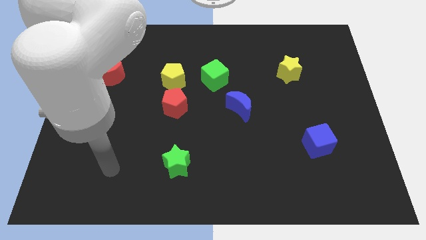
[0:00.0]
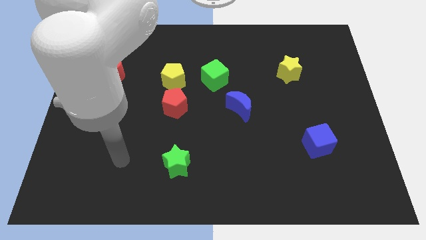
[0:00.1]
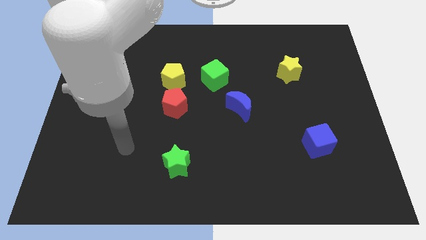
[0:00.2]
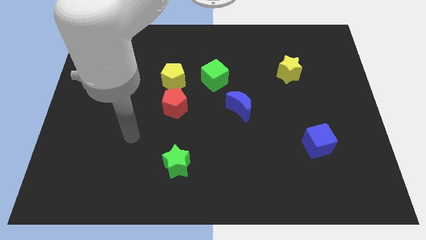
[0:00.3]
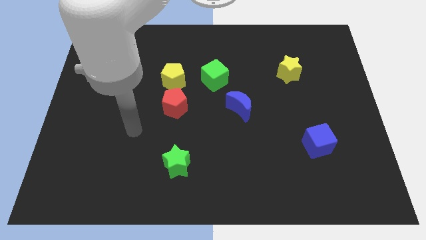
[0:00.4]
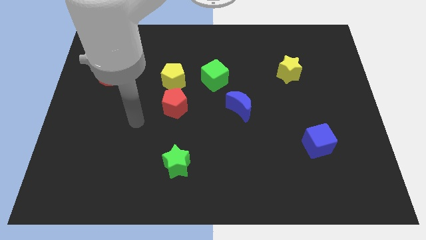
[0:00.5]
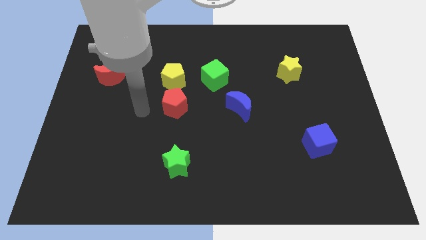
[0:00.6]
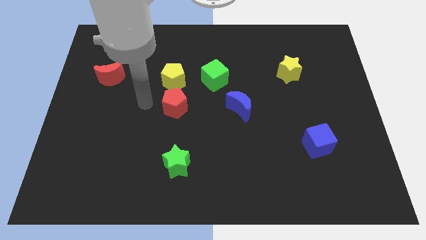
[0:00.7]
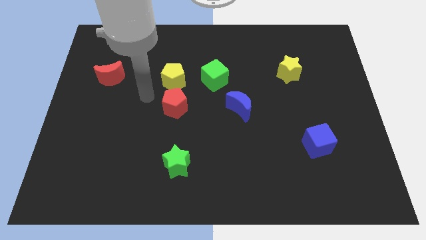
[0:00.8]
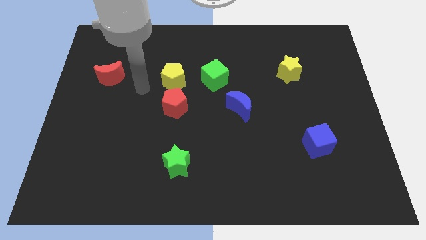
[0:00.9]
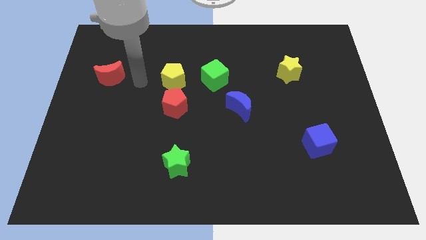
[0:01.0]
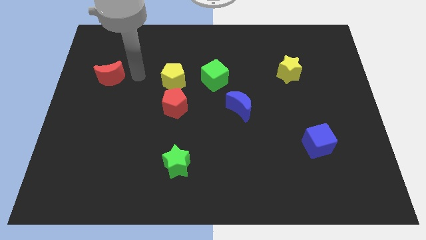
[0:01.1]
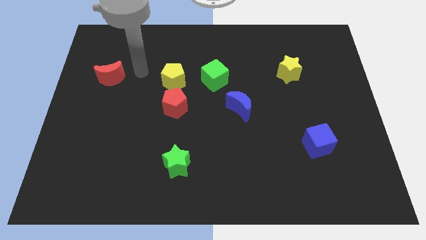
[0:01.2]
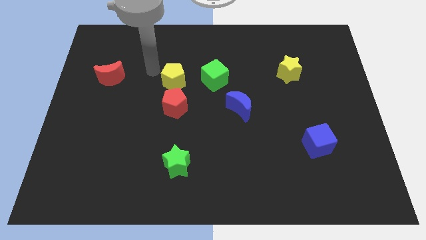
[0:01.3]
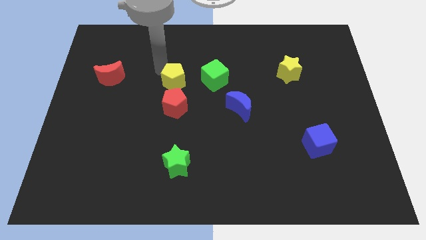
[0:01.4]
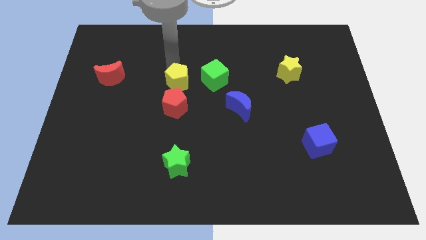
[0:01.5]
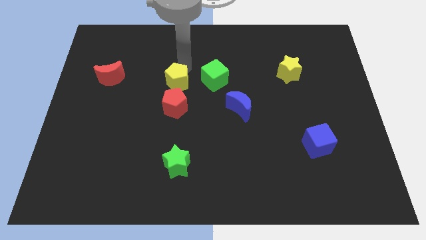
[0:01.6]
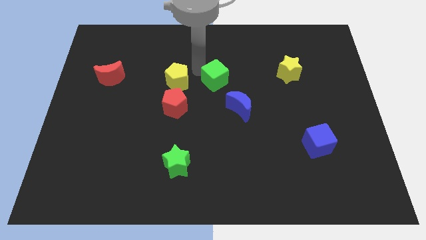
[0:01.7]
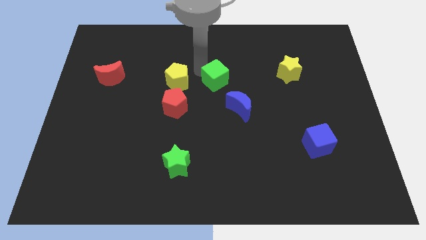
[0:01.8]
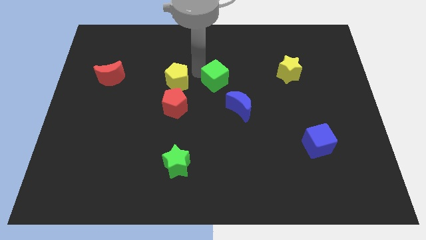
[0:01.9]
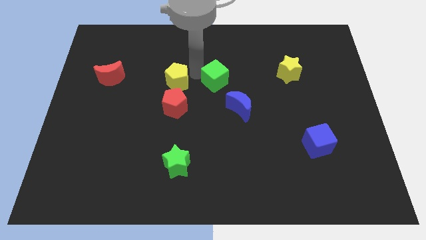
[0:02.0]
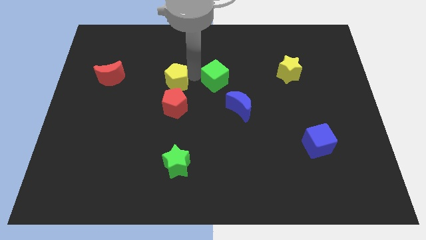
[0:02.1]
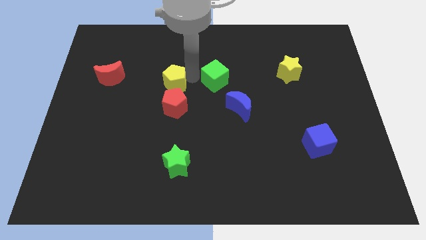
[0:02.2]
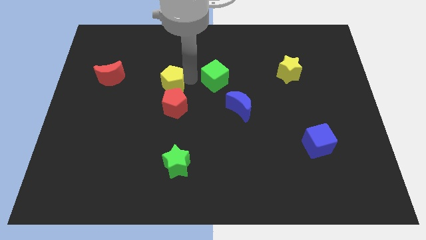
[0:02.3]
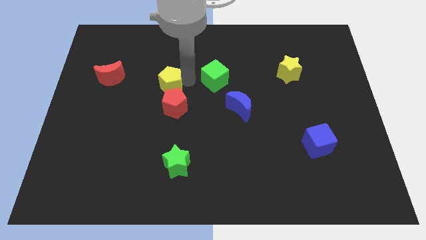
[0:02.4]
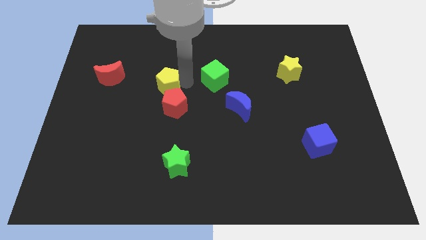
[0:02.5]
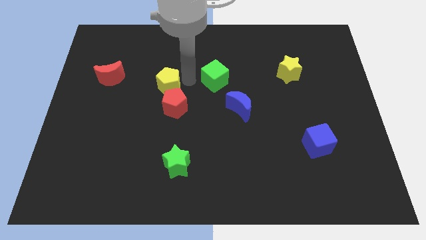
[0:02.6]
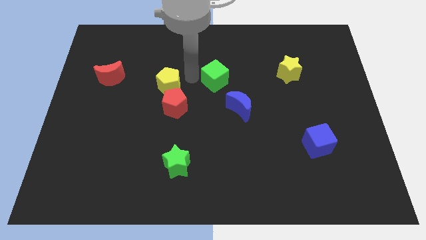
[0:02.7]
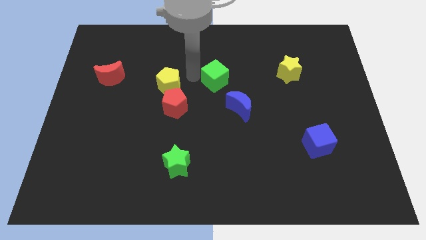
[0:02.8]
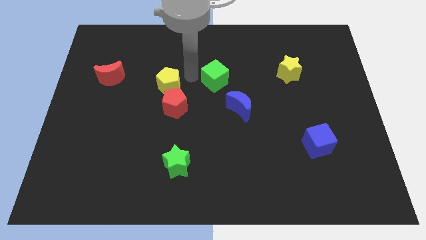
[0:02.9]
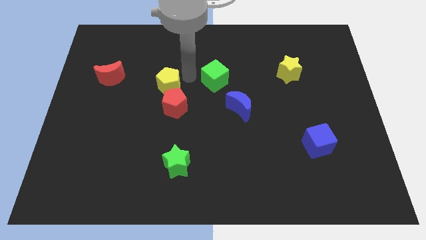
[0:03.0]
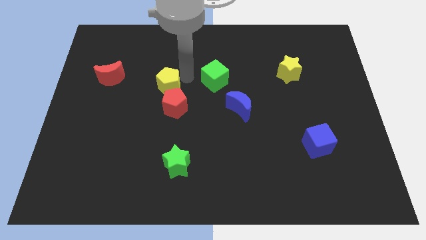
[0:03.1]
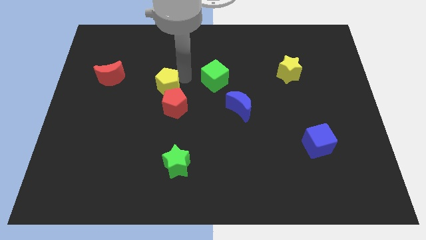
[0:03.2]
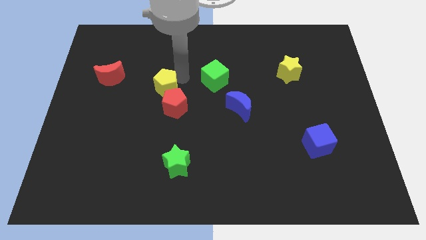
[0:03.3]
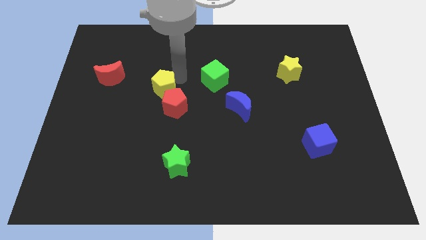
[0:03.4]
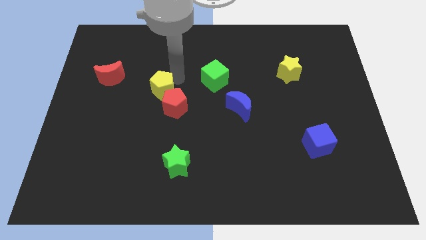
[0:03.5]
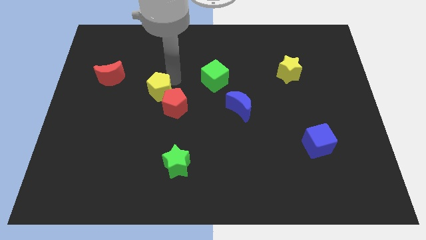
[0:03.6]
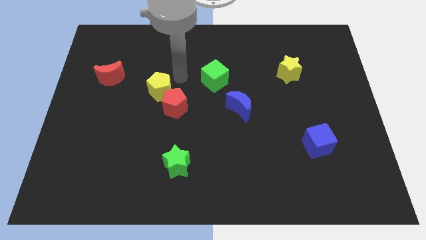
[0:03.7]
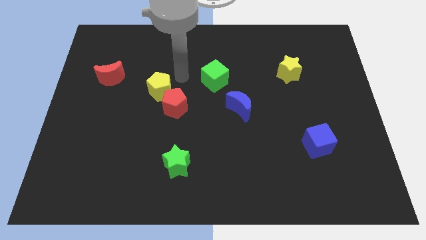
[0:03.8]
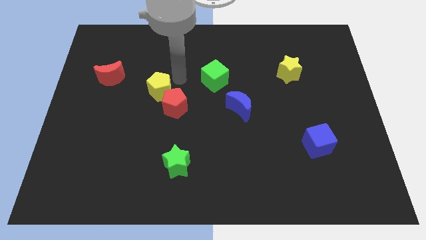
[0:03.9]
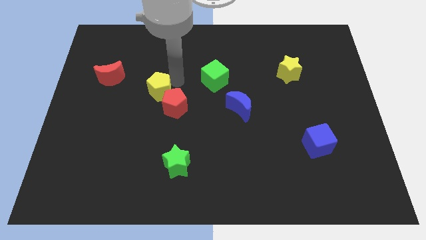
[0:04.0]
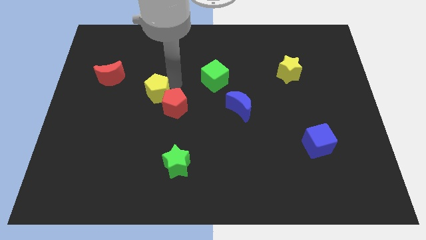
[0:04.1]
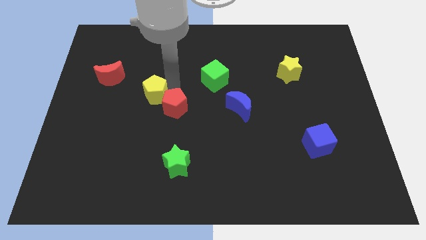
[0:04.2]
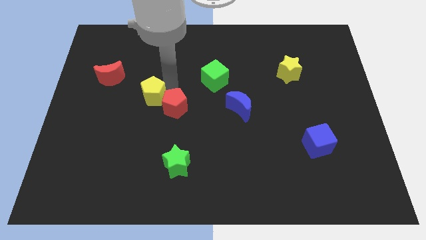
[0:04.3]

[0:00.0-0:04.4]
push the yellow pentagon a little bit down and to the left diagonally

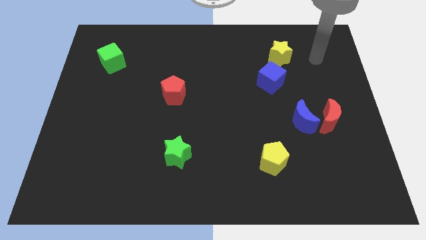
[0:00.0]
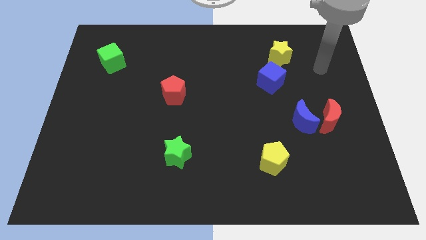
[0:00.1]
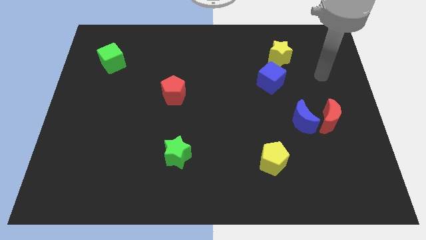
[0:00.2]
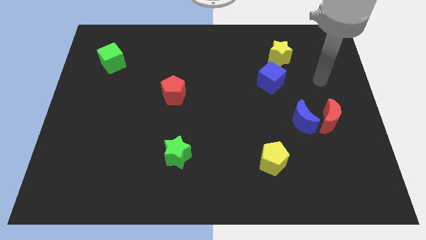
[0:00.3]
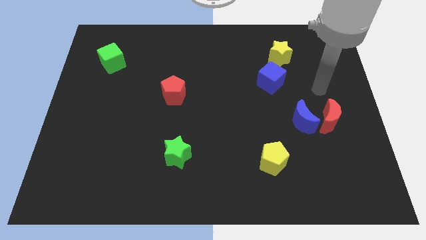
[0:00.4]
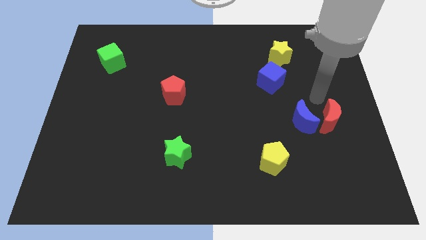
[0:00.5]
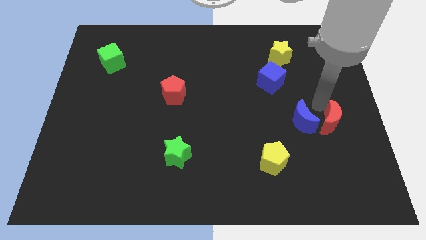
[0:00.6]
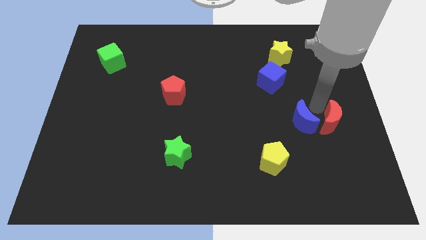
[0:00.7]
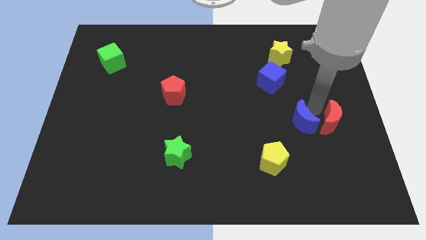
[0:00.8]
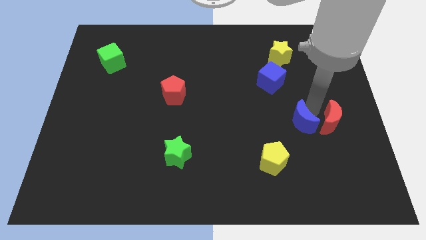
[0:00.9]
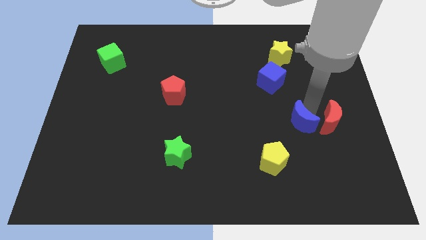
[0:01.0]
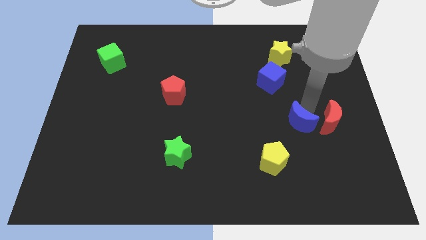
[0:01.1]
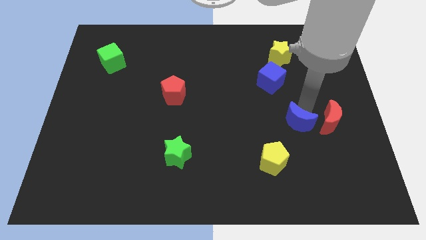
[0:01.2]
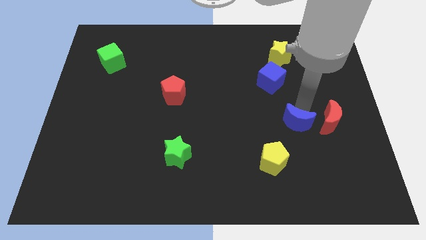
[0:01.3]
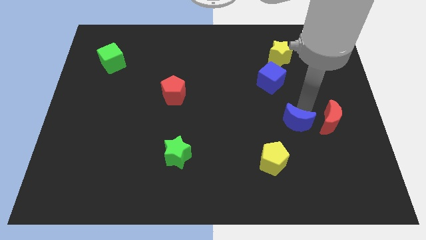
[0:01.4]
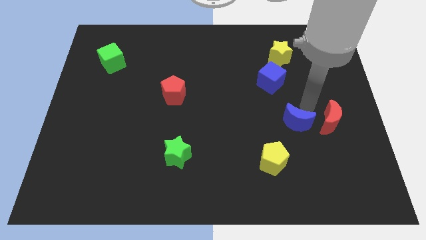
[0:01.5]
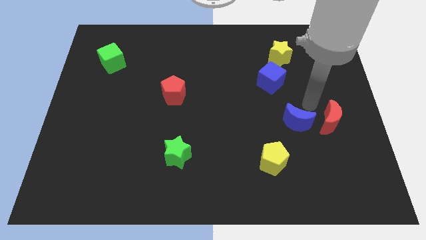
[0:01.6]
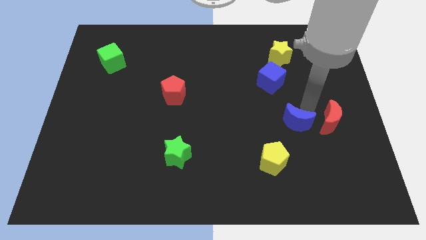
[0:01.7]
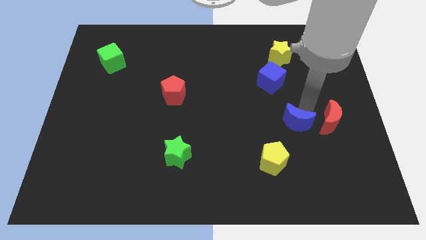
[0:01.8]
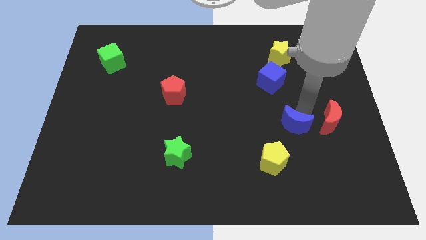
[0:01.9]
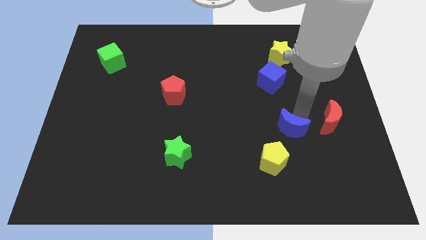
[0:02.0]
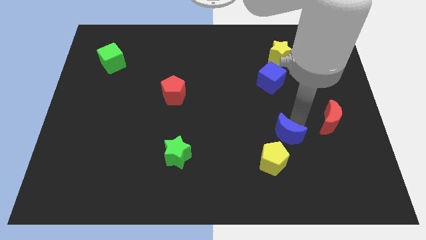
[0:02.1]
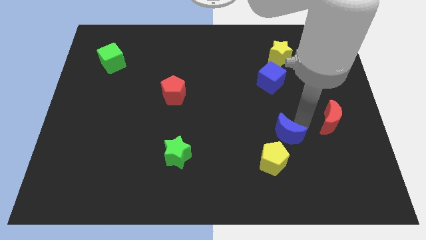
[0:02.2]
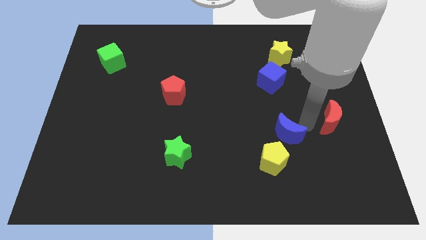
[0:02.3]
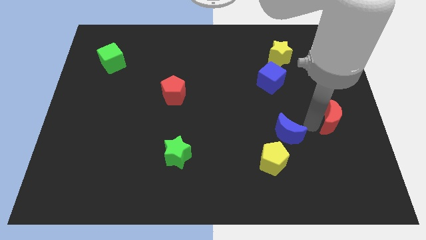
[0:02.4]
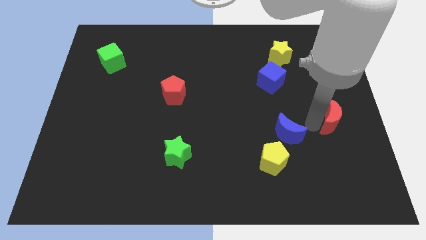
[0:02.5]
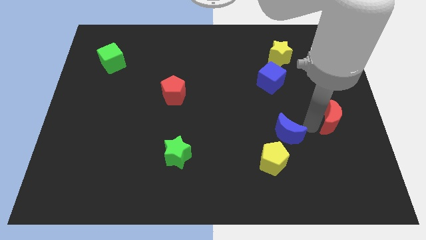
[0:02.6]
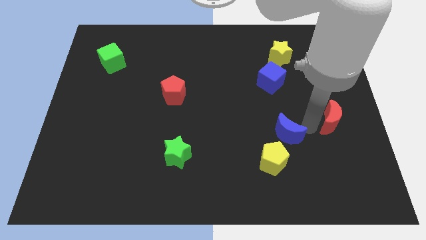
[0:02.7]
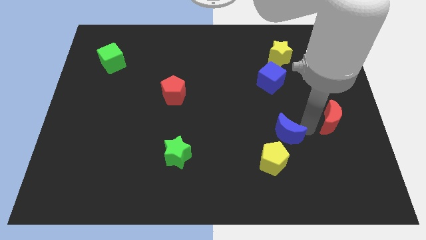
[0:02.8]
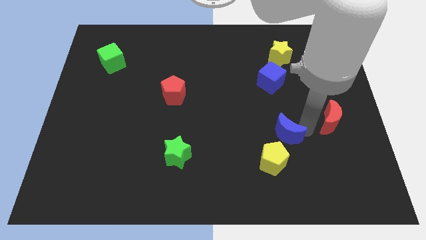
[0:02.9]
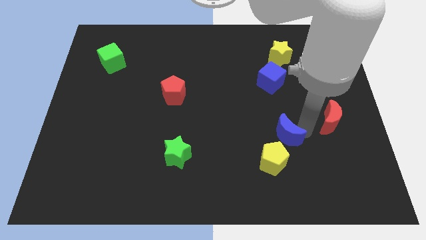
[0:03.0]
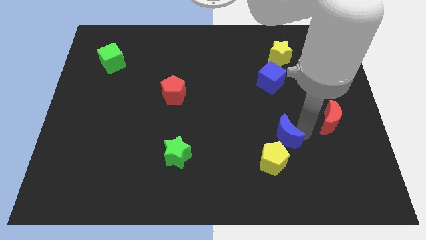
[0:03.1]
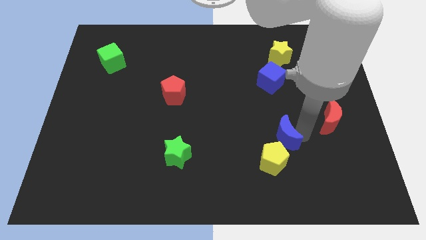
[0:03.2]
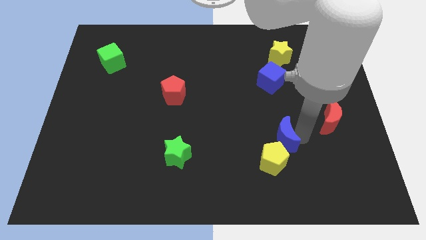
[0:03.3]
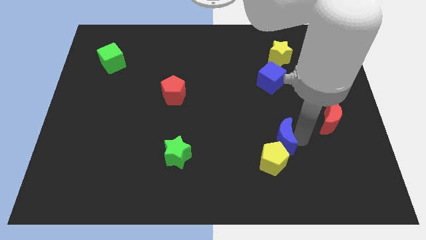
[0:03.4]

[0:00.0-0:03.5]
move the blue moon diagonally downwards and left a little bit
